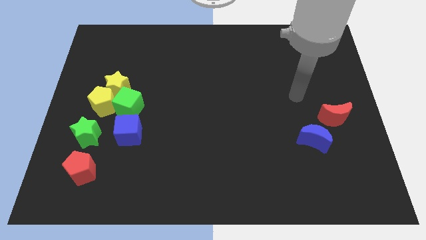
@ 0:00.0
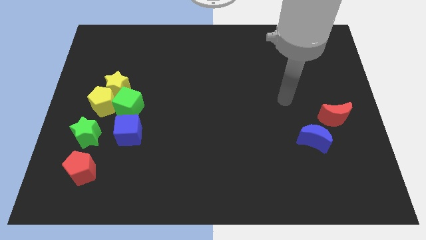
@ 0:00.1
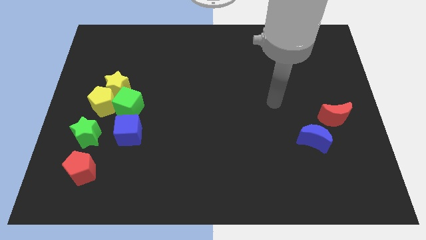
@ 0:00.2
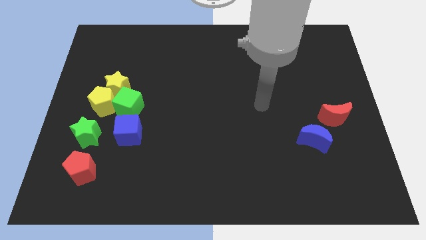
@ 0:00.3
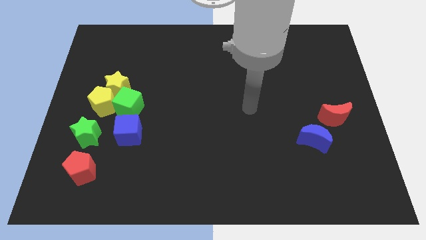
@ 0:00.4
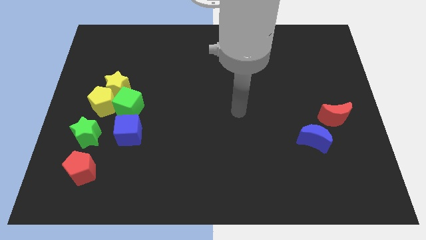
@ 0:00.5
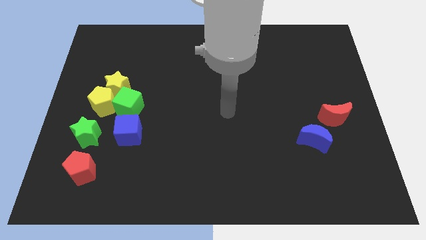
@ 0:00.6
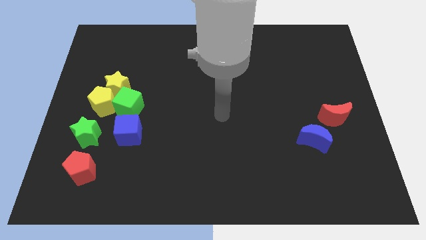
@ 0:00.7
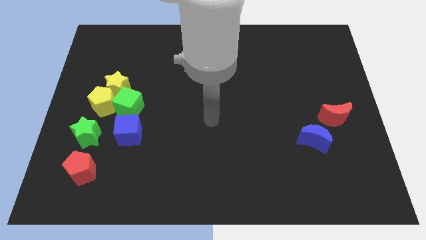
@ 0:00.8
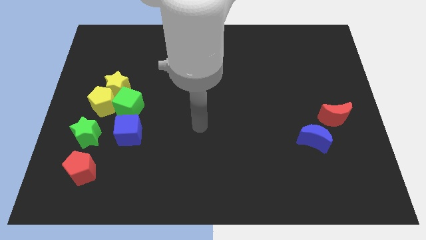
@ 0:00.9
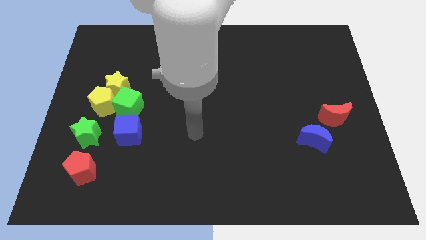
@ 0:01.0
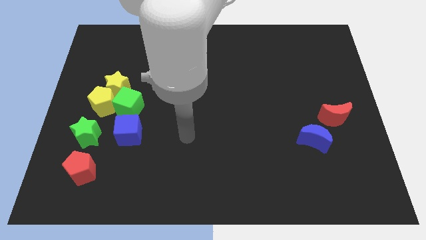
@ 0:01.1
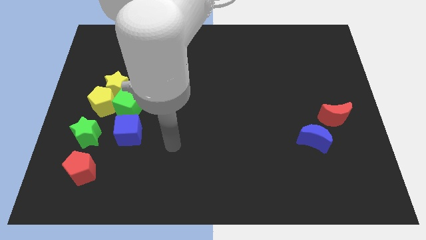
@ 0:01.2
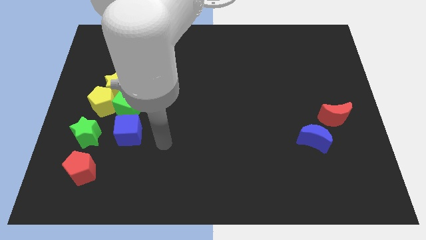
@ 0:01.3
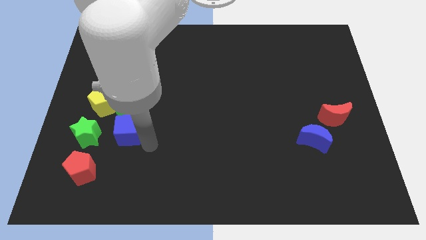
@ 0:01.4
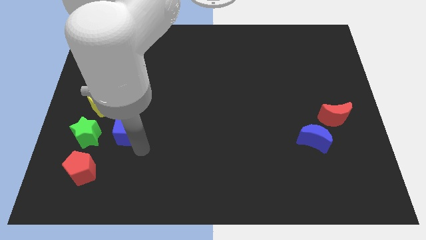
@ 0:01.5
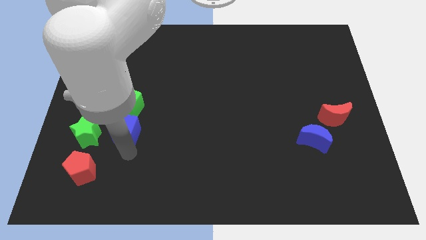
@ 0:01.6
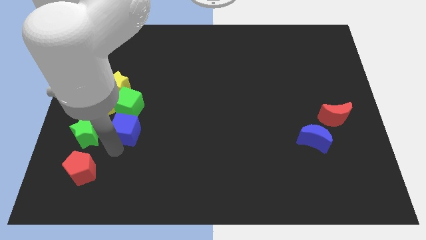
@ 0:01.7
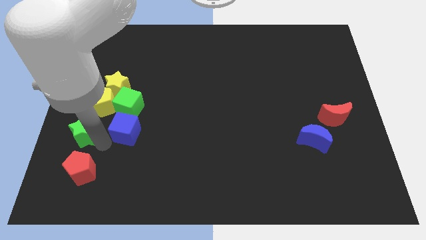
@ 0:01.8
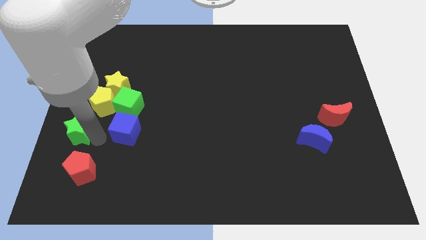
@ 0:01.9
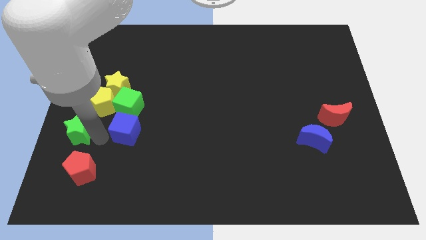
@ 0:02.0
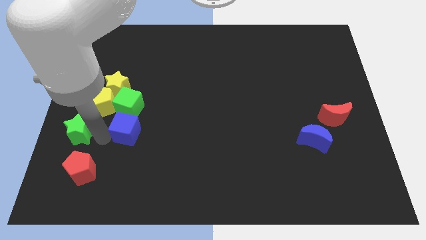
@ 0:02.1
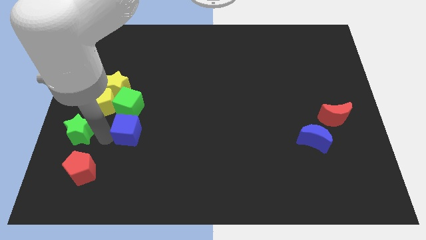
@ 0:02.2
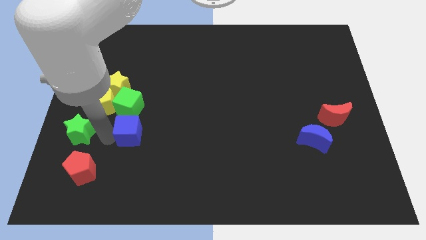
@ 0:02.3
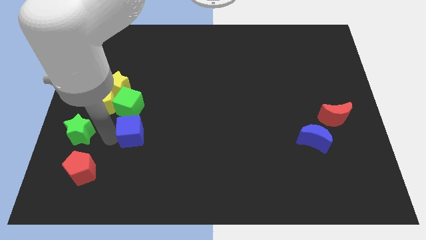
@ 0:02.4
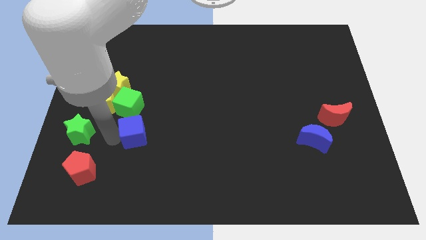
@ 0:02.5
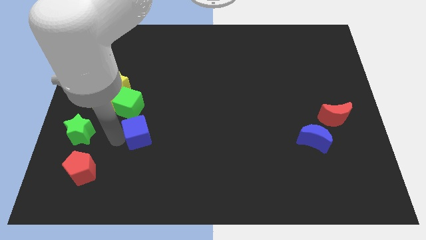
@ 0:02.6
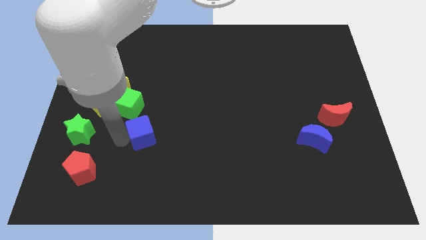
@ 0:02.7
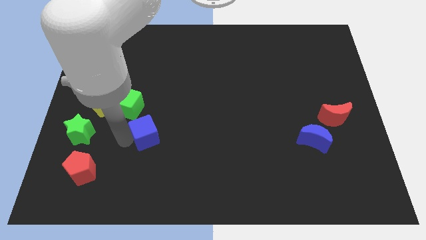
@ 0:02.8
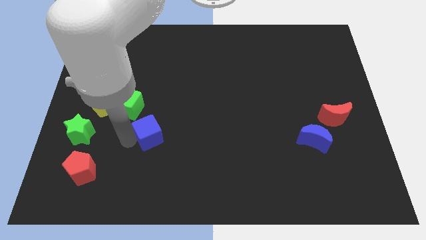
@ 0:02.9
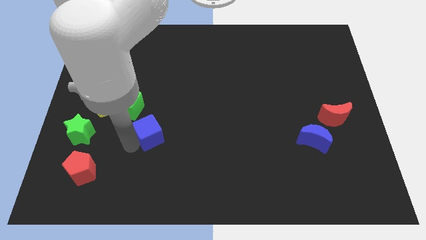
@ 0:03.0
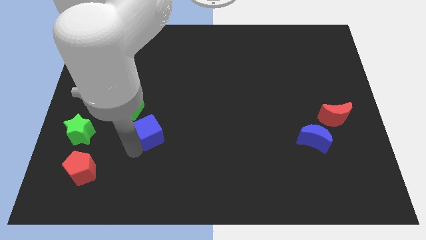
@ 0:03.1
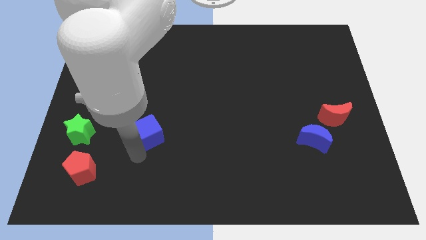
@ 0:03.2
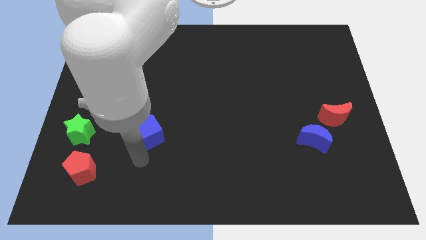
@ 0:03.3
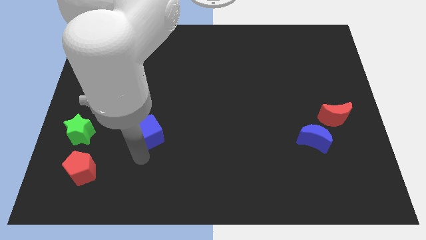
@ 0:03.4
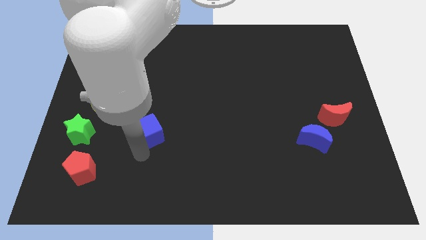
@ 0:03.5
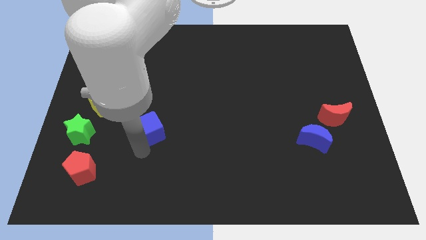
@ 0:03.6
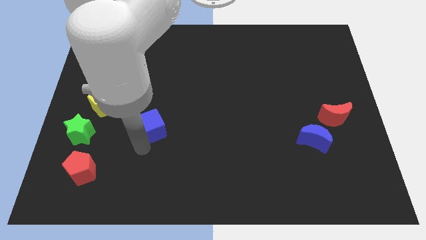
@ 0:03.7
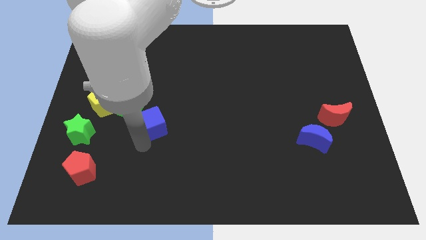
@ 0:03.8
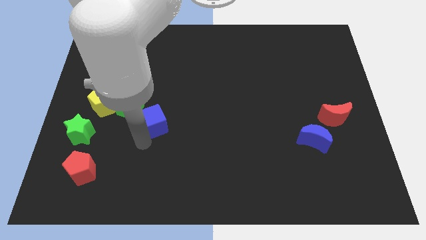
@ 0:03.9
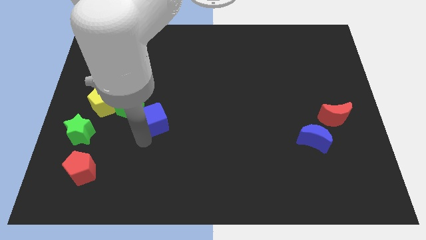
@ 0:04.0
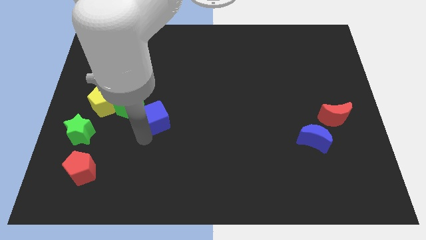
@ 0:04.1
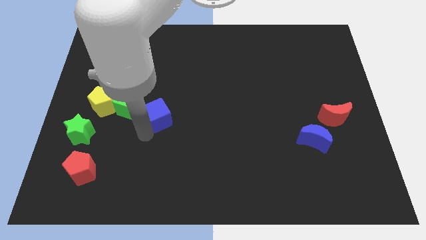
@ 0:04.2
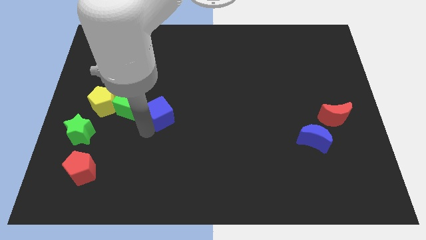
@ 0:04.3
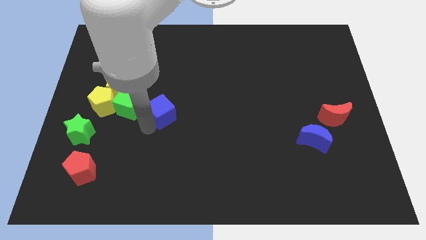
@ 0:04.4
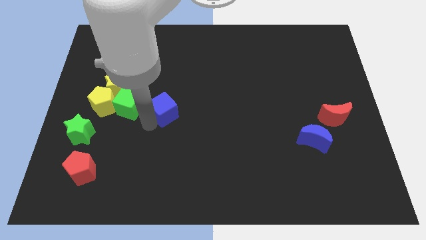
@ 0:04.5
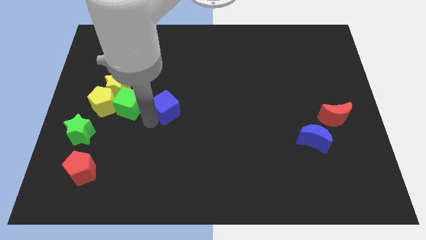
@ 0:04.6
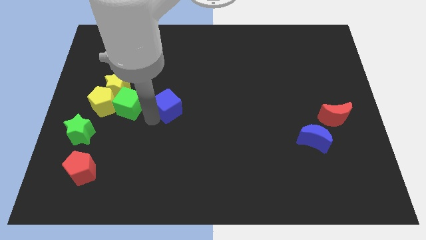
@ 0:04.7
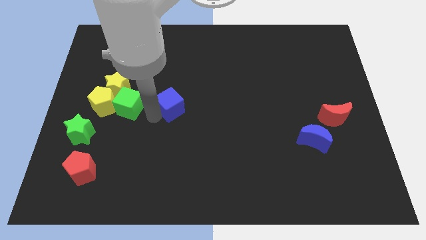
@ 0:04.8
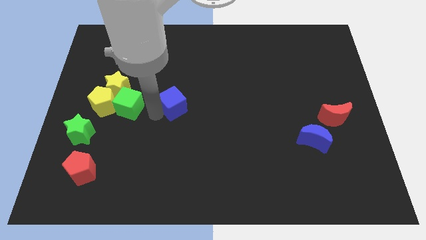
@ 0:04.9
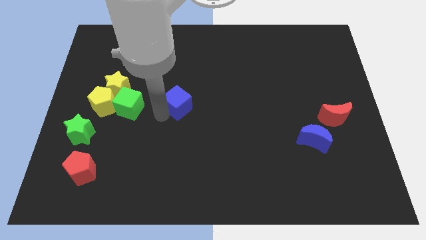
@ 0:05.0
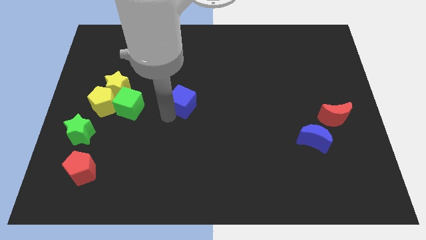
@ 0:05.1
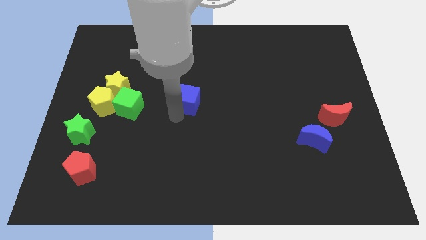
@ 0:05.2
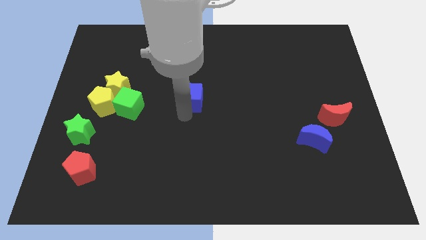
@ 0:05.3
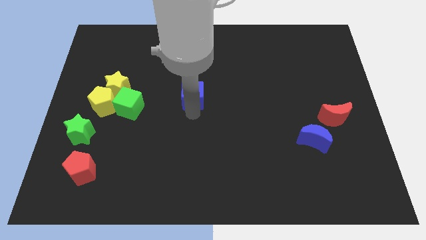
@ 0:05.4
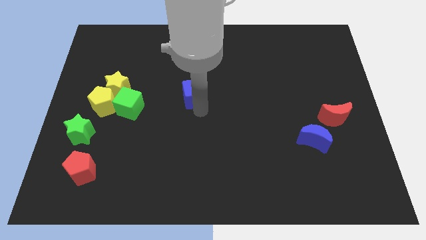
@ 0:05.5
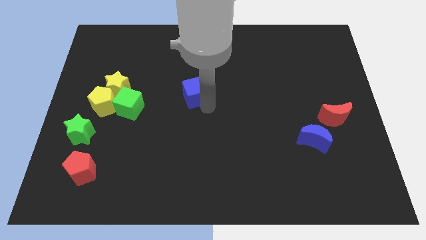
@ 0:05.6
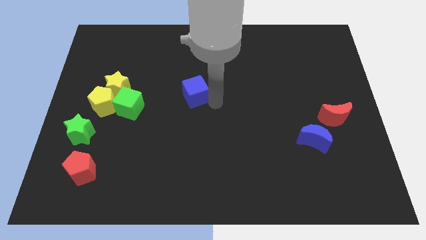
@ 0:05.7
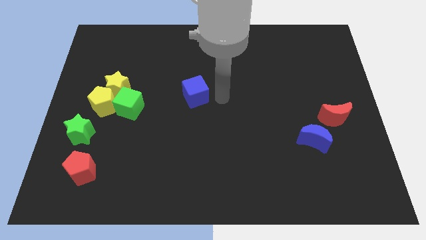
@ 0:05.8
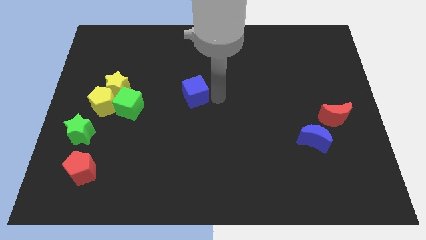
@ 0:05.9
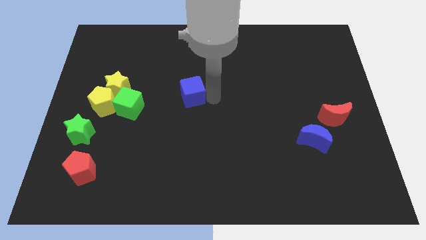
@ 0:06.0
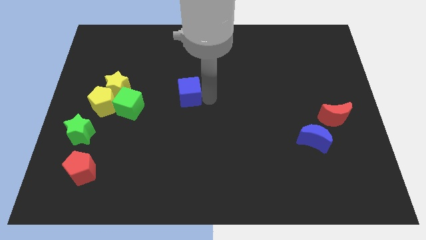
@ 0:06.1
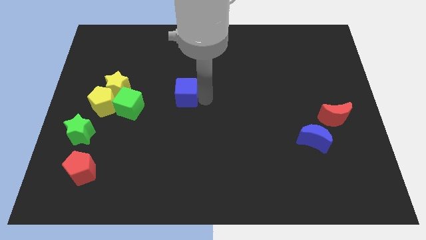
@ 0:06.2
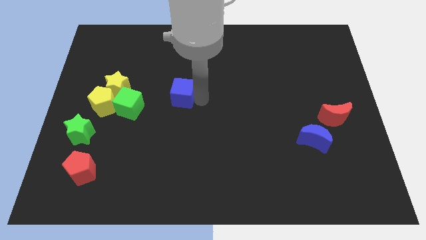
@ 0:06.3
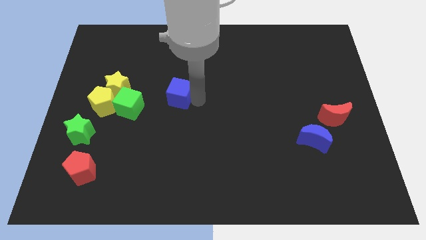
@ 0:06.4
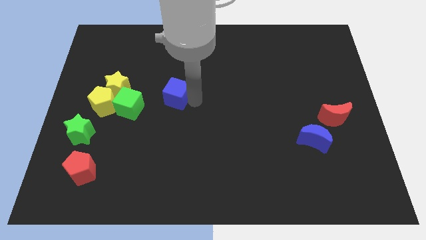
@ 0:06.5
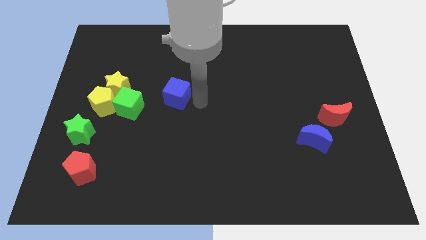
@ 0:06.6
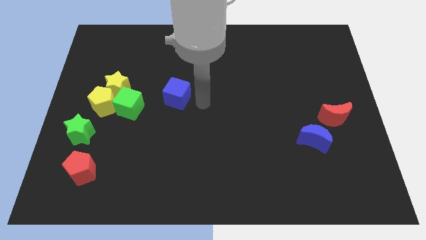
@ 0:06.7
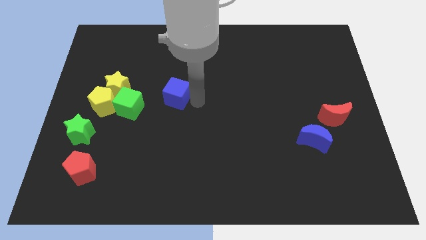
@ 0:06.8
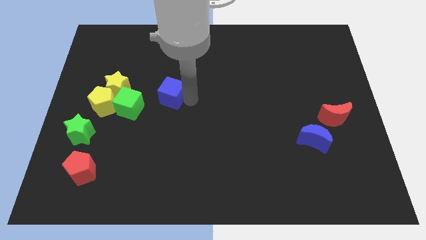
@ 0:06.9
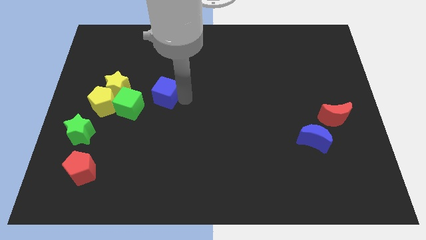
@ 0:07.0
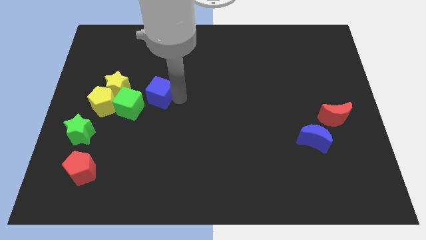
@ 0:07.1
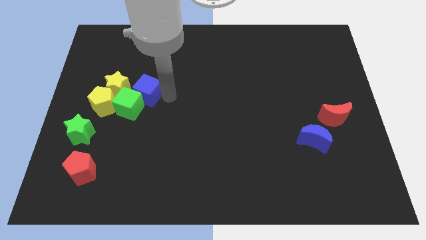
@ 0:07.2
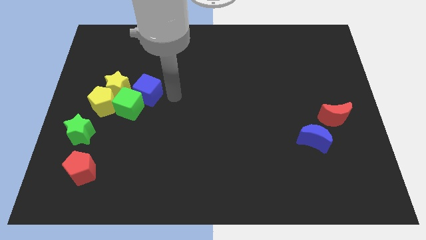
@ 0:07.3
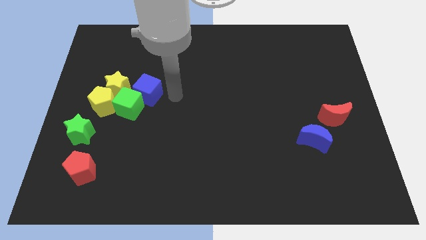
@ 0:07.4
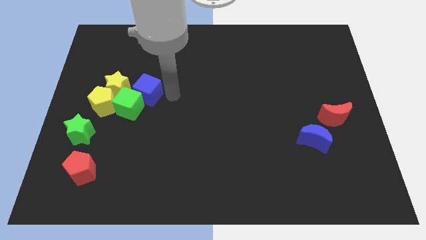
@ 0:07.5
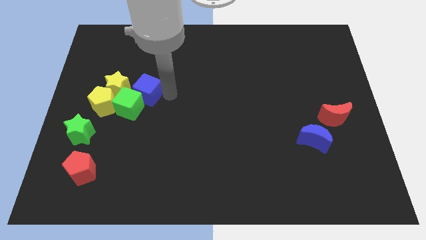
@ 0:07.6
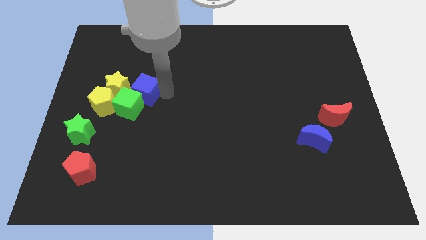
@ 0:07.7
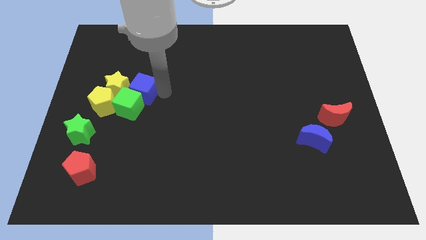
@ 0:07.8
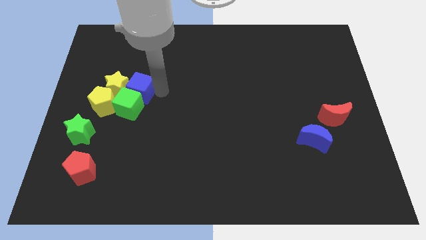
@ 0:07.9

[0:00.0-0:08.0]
move the blue cube close to the yellow star

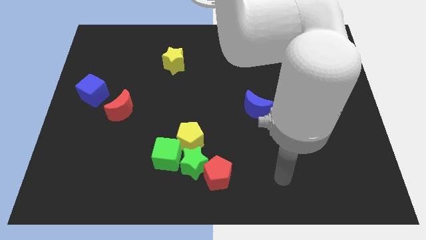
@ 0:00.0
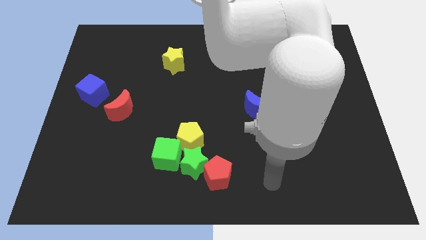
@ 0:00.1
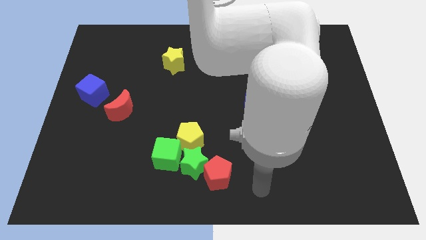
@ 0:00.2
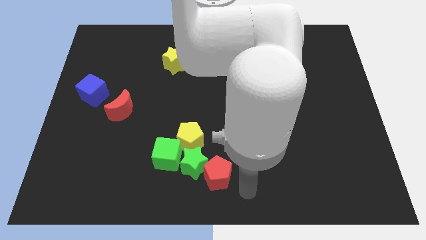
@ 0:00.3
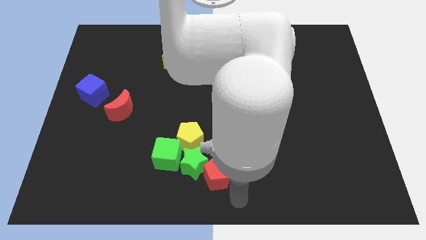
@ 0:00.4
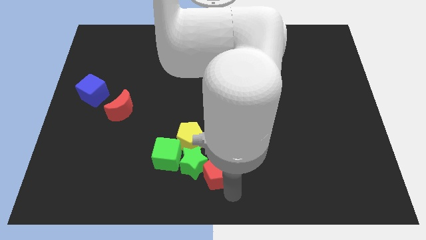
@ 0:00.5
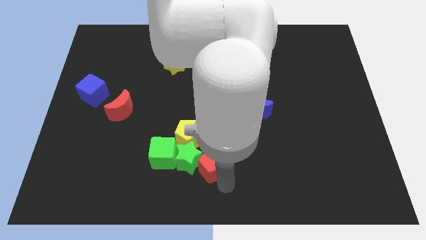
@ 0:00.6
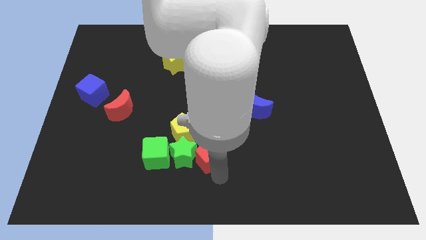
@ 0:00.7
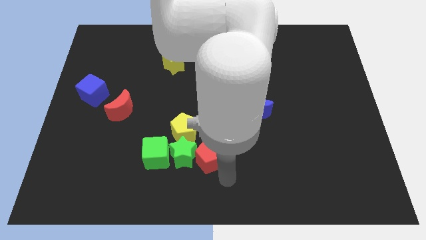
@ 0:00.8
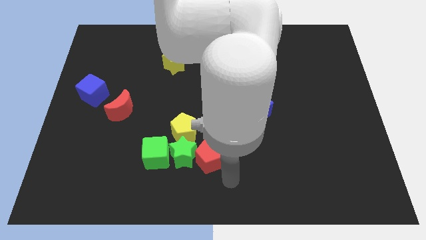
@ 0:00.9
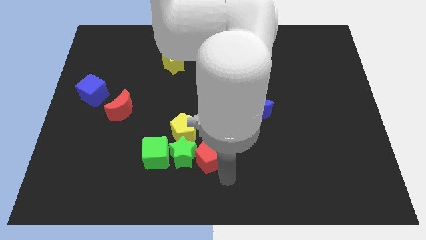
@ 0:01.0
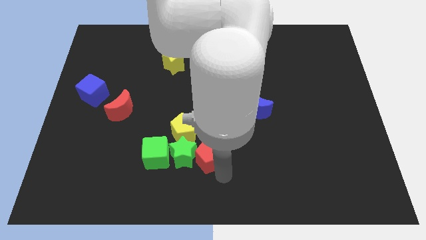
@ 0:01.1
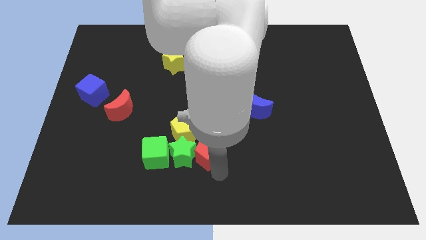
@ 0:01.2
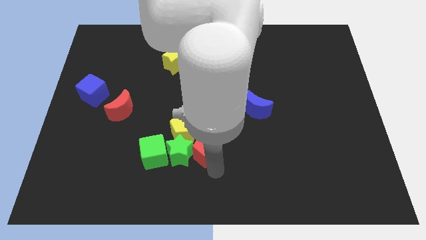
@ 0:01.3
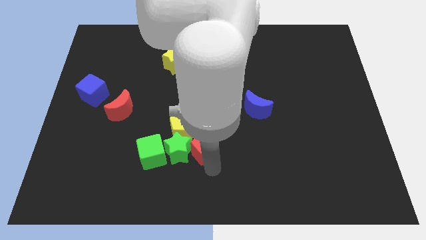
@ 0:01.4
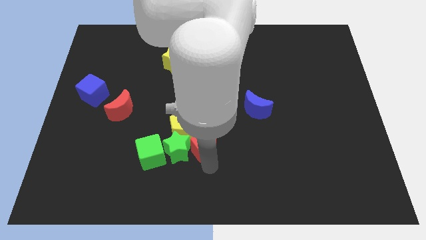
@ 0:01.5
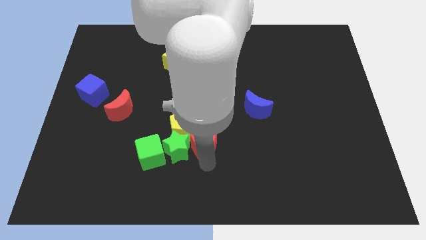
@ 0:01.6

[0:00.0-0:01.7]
slide the red pentagon towards the yellow pentagon
